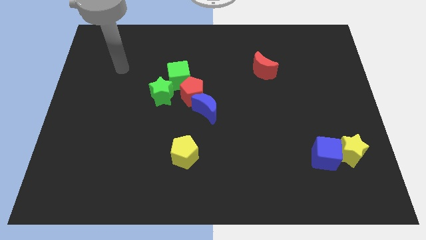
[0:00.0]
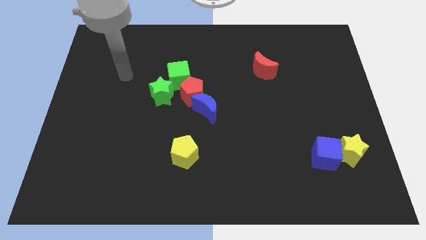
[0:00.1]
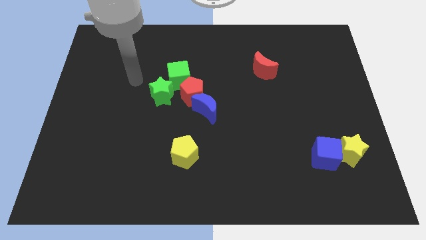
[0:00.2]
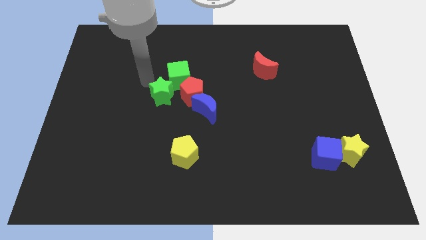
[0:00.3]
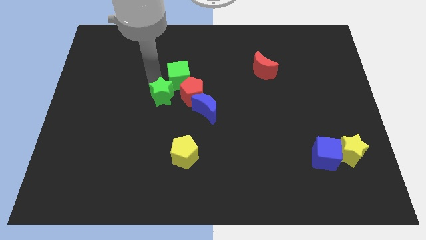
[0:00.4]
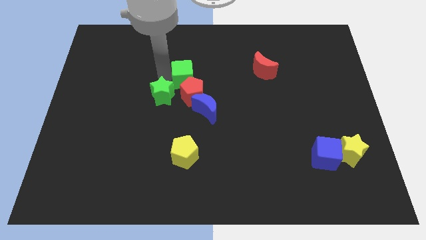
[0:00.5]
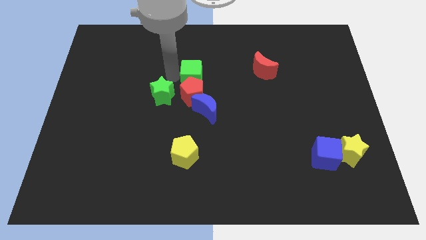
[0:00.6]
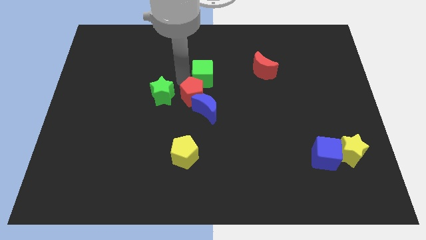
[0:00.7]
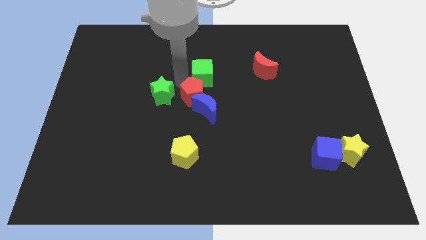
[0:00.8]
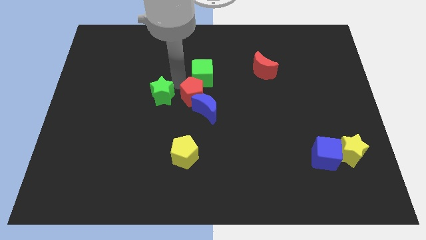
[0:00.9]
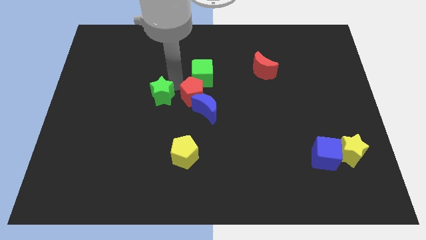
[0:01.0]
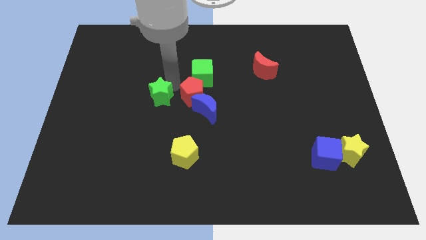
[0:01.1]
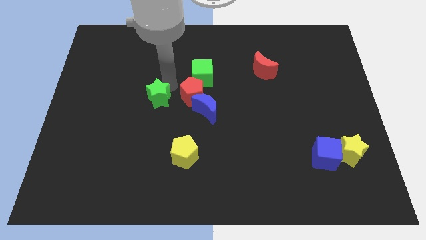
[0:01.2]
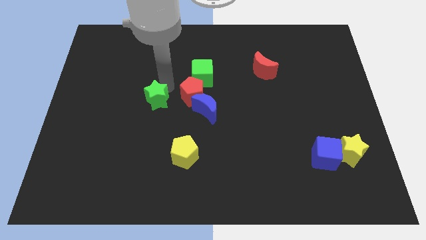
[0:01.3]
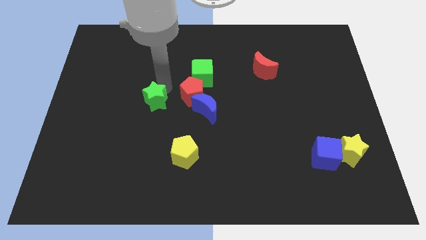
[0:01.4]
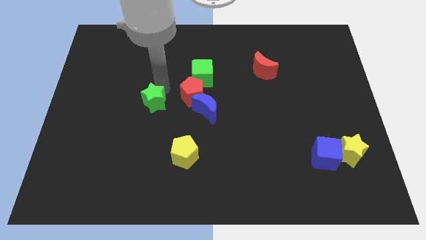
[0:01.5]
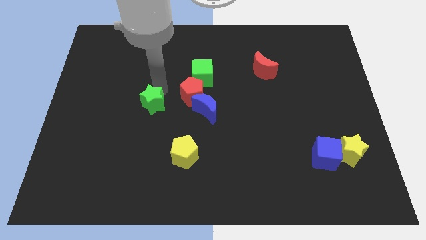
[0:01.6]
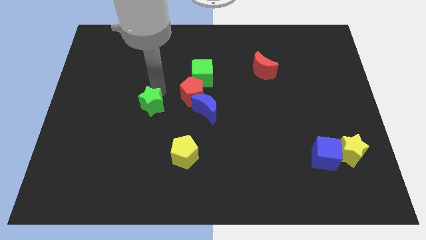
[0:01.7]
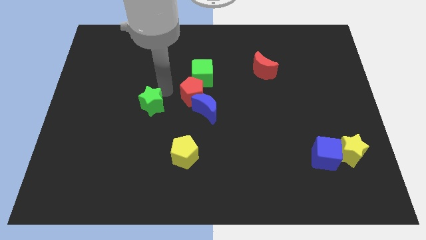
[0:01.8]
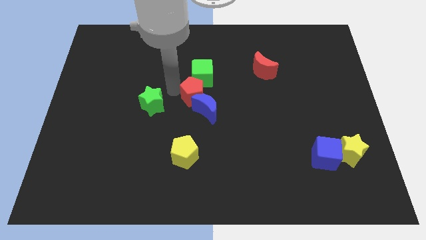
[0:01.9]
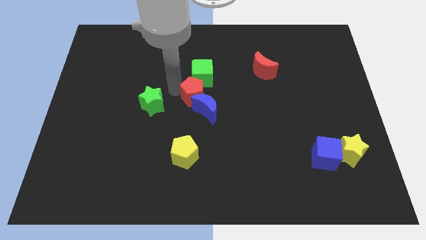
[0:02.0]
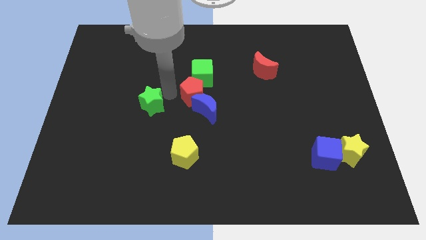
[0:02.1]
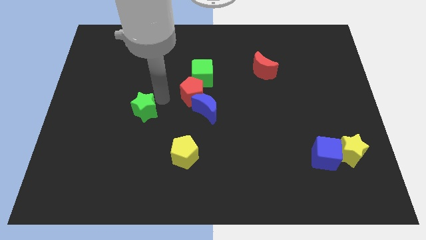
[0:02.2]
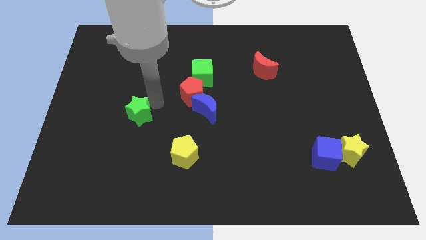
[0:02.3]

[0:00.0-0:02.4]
move the green star somewhat downwards and to the left diagonally

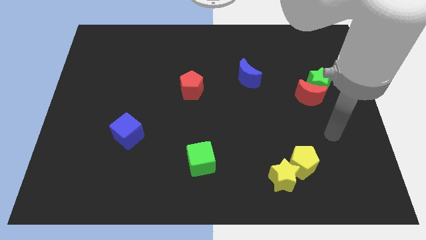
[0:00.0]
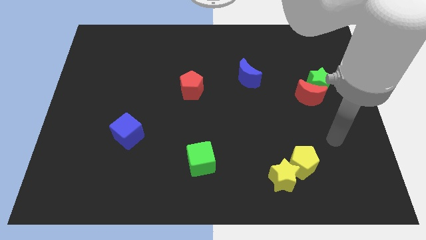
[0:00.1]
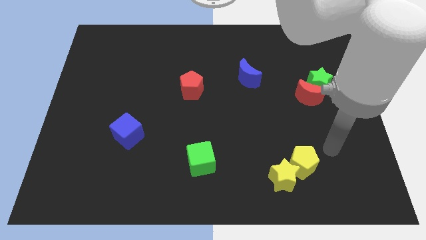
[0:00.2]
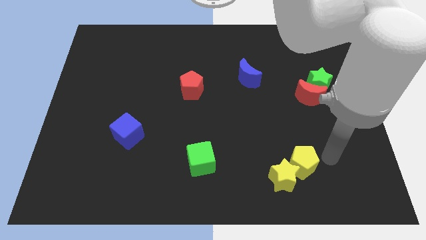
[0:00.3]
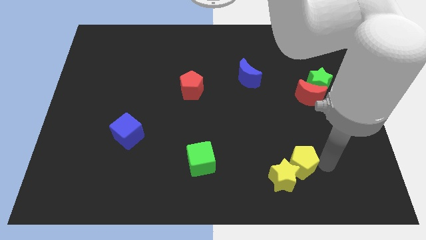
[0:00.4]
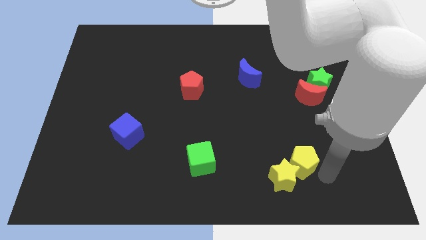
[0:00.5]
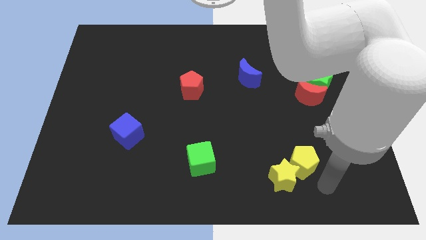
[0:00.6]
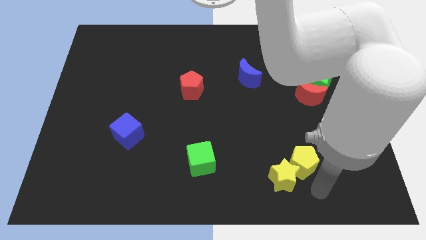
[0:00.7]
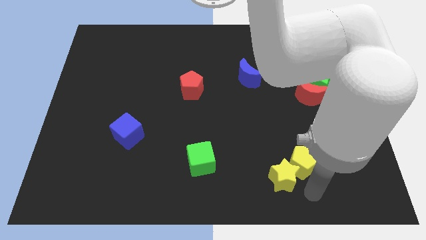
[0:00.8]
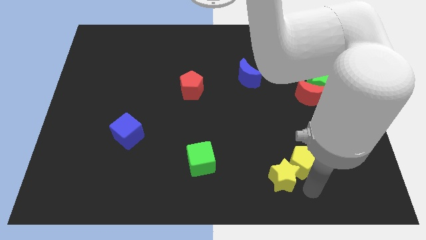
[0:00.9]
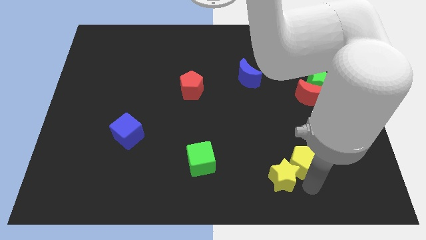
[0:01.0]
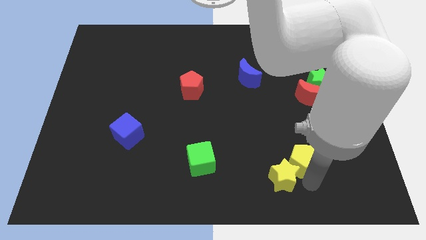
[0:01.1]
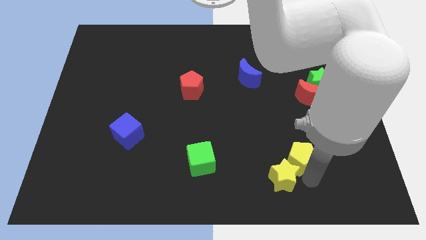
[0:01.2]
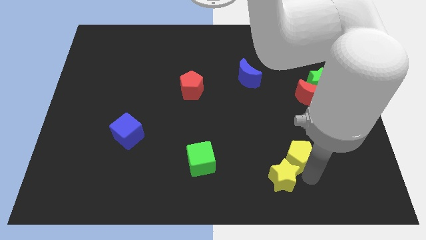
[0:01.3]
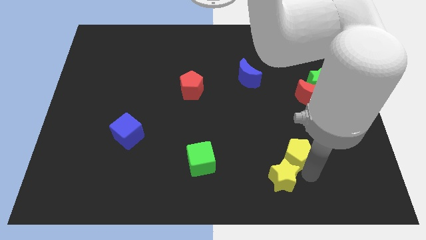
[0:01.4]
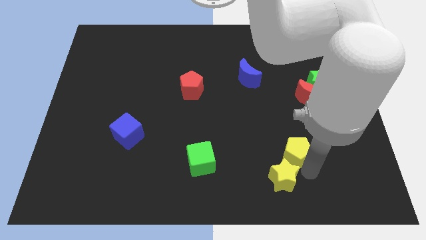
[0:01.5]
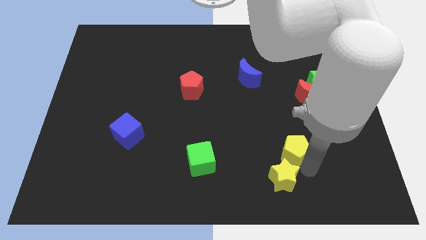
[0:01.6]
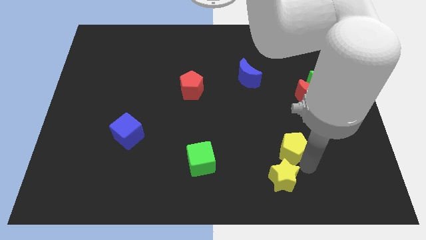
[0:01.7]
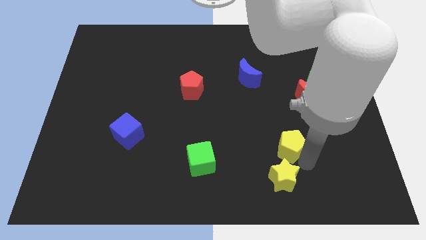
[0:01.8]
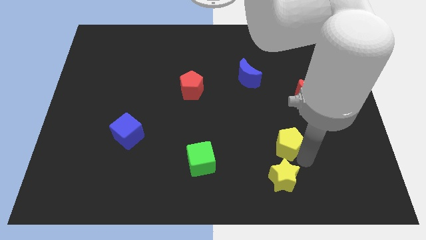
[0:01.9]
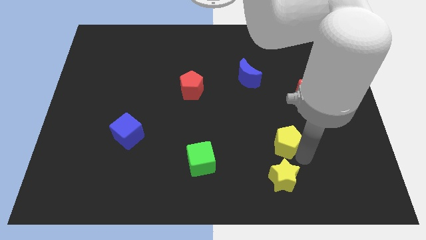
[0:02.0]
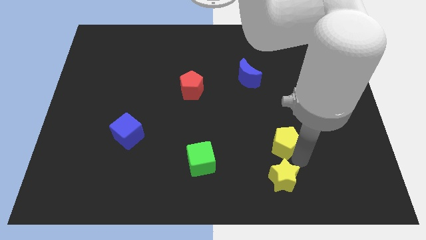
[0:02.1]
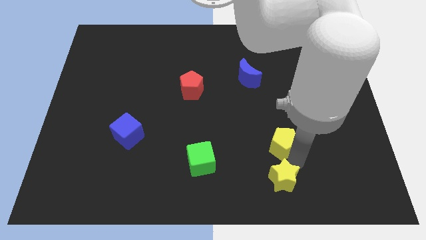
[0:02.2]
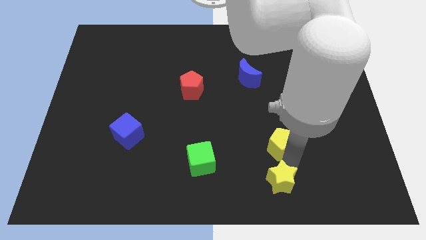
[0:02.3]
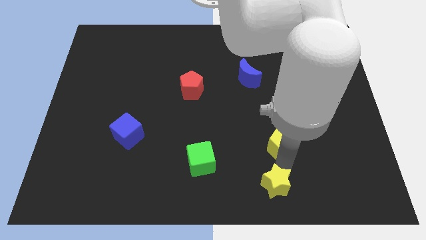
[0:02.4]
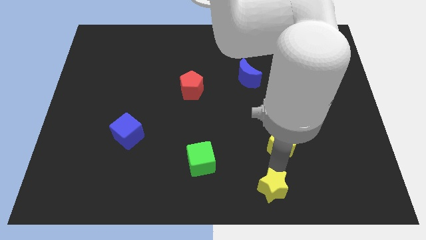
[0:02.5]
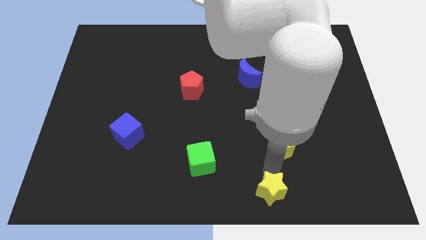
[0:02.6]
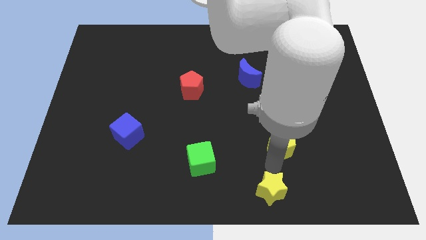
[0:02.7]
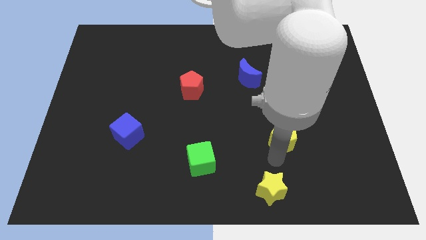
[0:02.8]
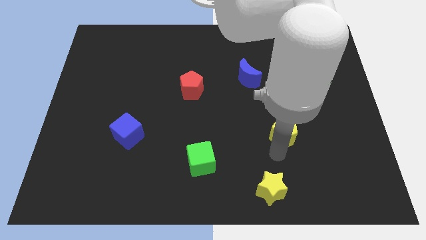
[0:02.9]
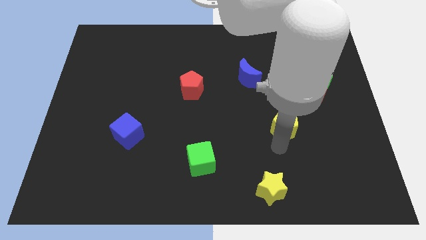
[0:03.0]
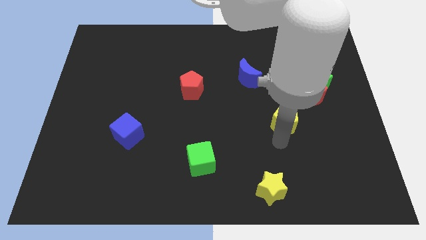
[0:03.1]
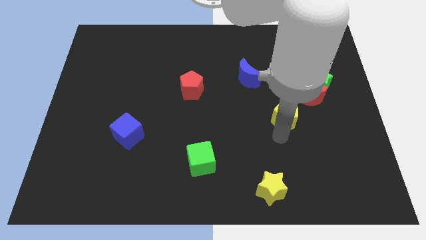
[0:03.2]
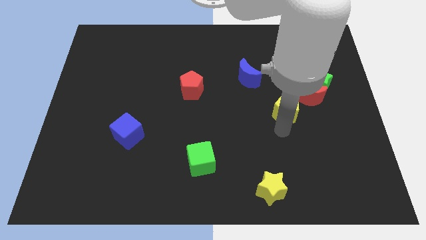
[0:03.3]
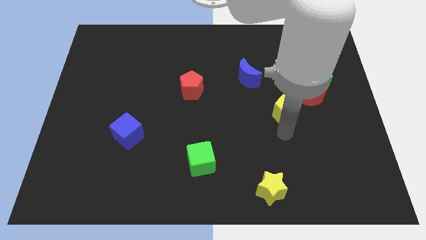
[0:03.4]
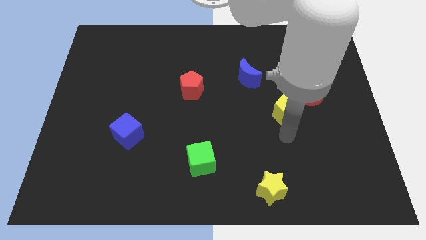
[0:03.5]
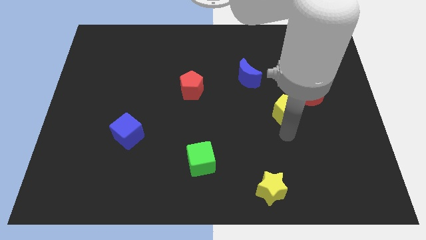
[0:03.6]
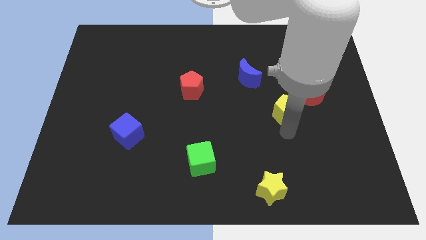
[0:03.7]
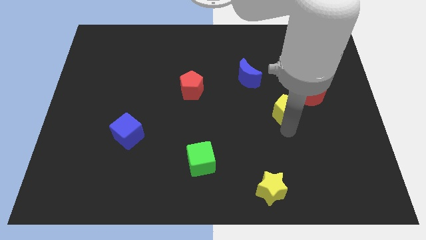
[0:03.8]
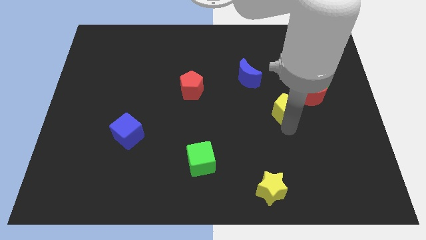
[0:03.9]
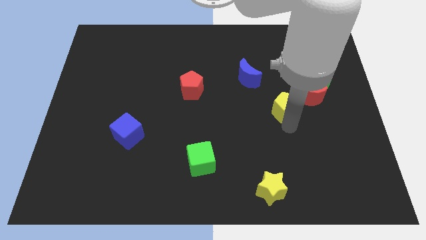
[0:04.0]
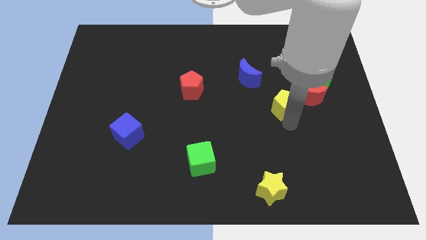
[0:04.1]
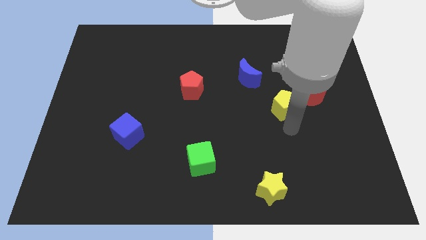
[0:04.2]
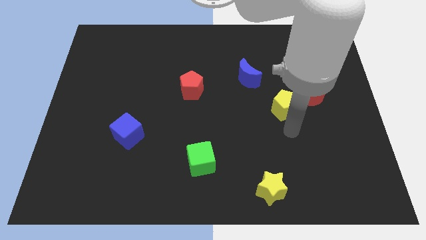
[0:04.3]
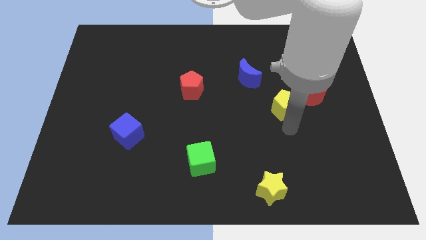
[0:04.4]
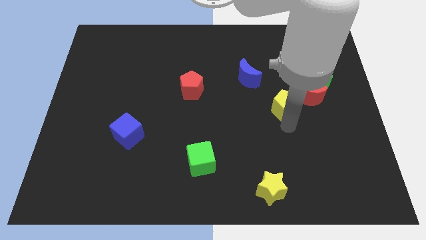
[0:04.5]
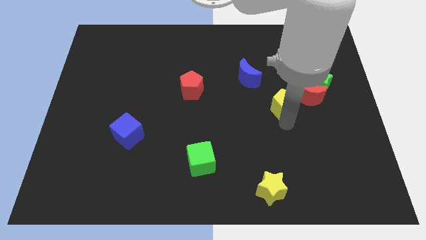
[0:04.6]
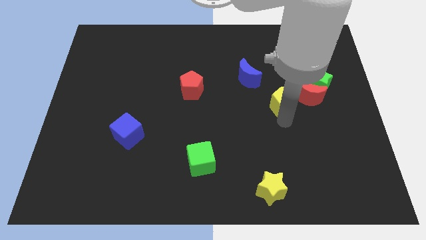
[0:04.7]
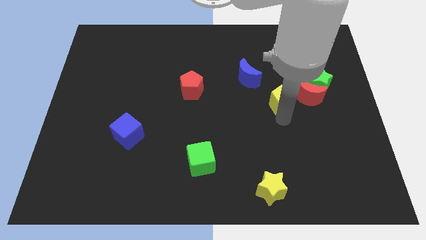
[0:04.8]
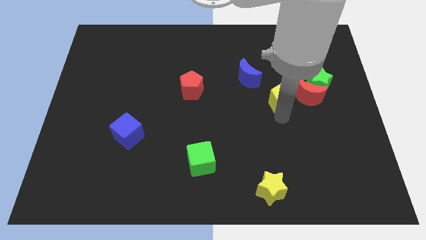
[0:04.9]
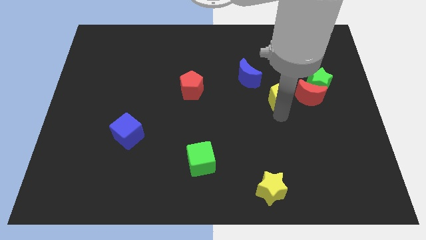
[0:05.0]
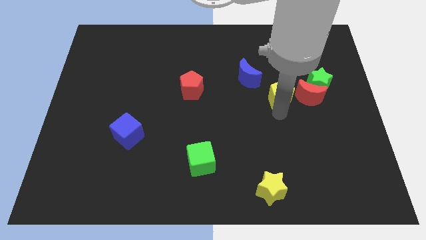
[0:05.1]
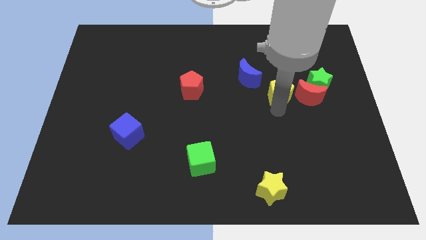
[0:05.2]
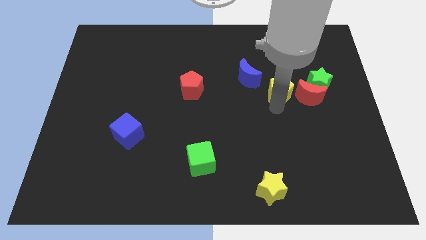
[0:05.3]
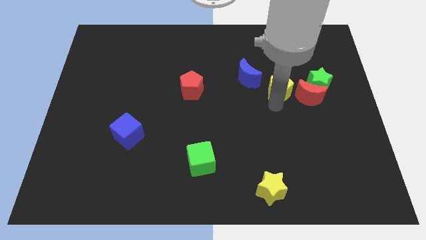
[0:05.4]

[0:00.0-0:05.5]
push the yellow pentagon upwards

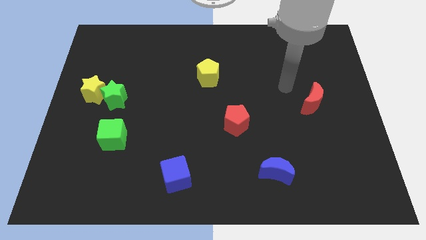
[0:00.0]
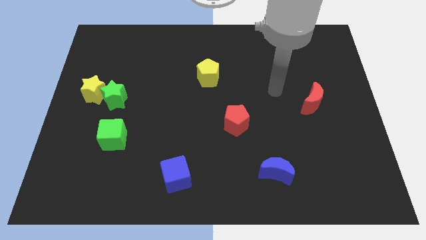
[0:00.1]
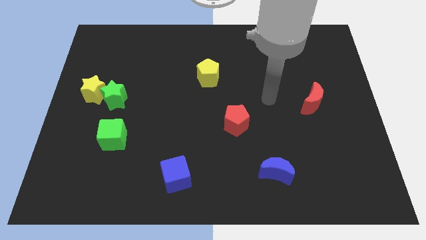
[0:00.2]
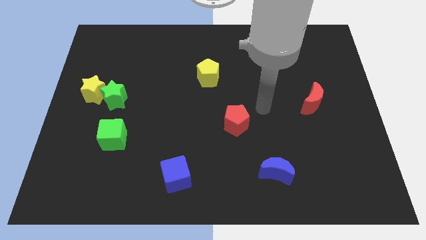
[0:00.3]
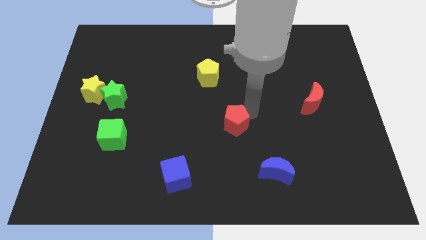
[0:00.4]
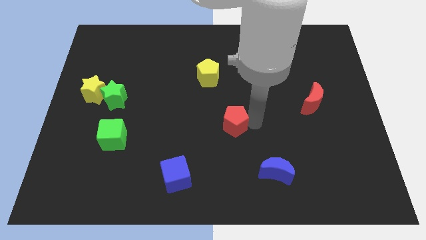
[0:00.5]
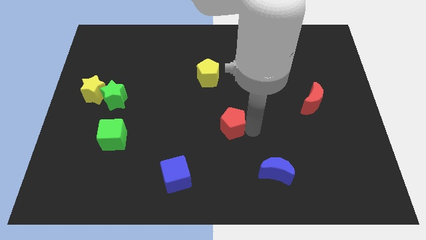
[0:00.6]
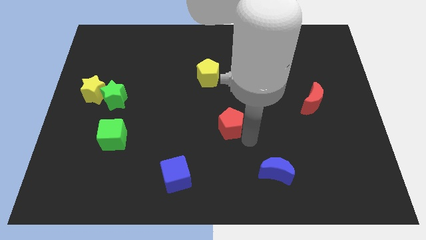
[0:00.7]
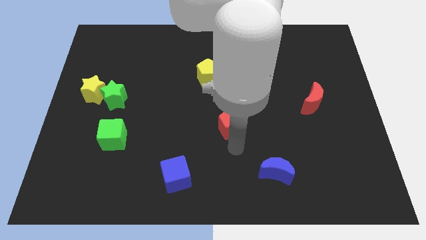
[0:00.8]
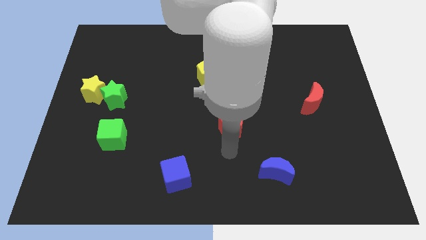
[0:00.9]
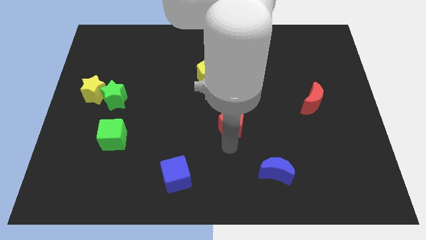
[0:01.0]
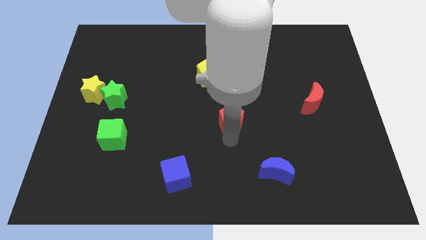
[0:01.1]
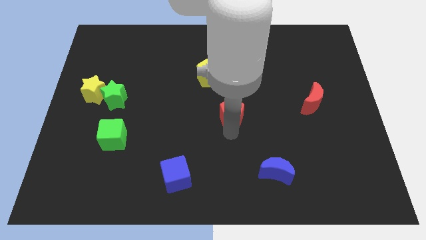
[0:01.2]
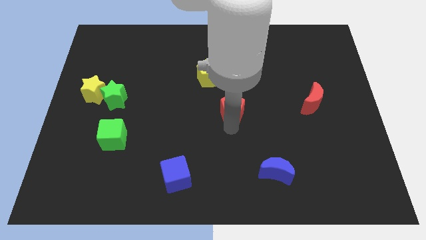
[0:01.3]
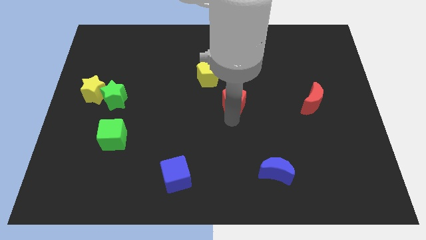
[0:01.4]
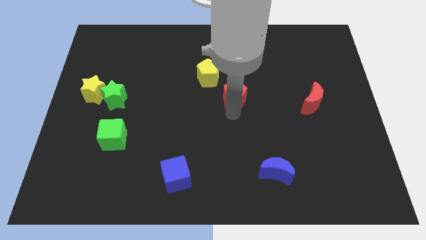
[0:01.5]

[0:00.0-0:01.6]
slightly slide the red pentagon upwards
